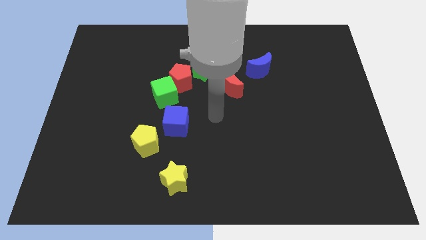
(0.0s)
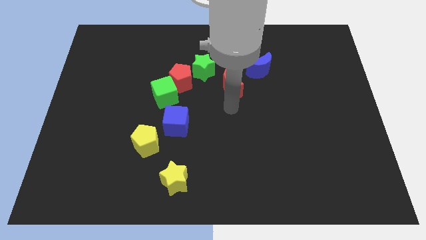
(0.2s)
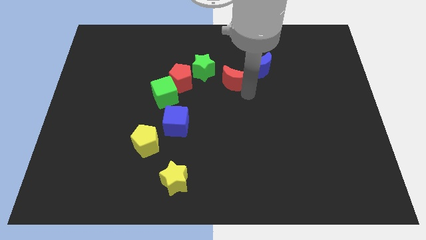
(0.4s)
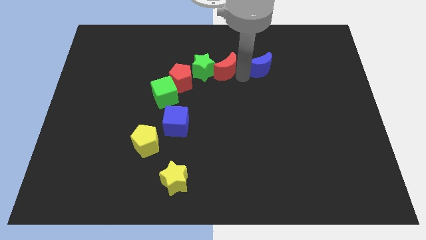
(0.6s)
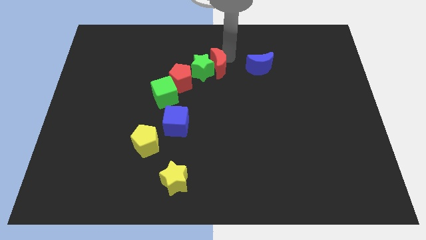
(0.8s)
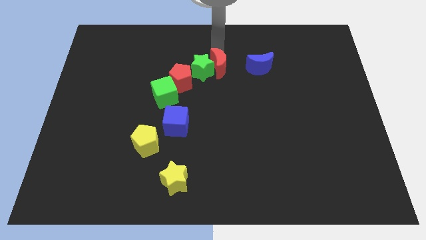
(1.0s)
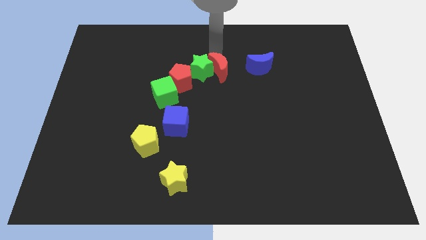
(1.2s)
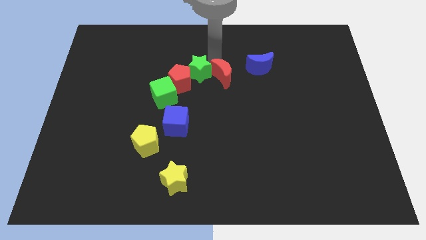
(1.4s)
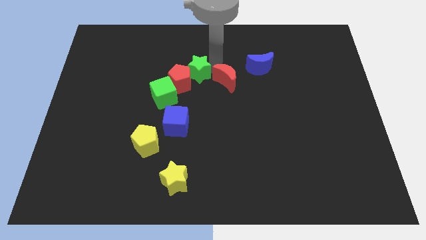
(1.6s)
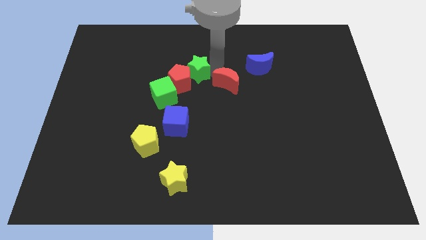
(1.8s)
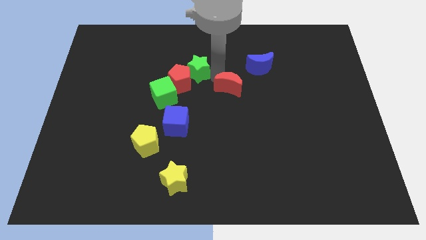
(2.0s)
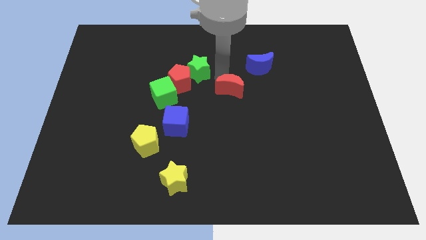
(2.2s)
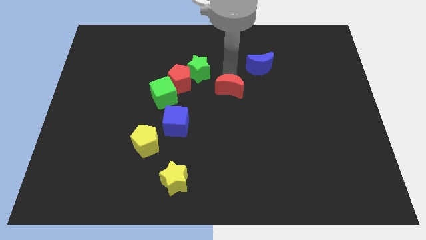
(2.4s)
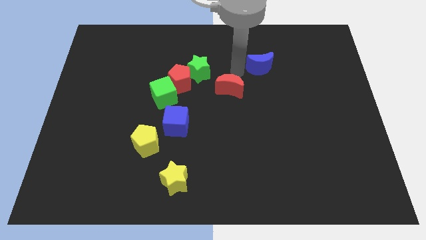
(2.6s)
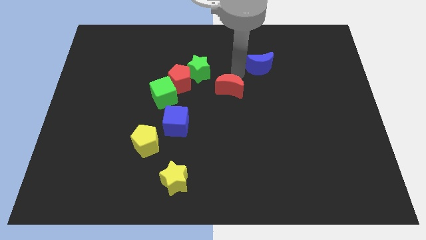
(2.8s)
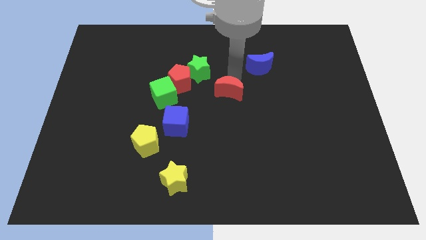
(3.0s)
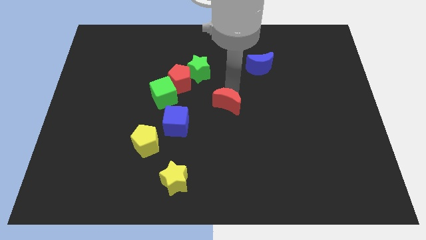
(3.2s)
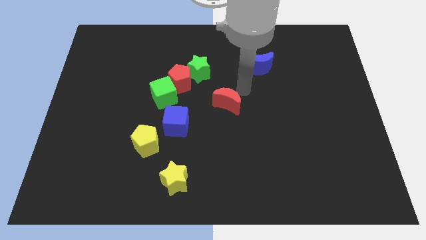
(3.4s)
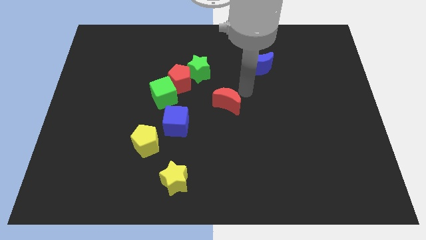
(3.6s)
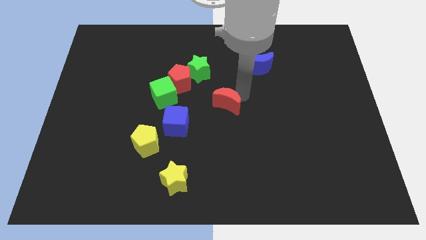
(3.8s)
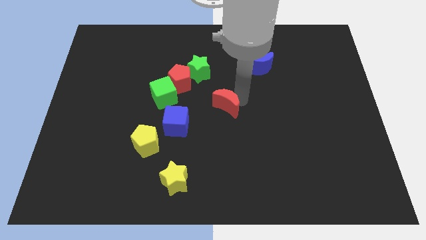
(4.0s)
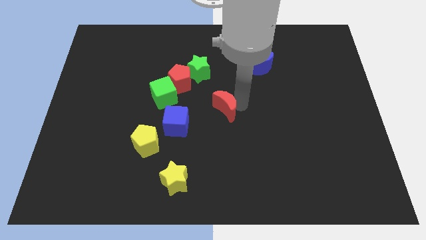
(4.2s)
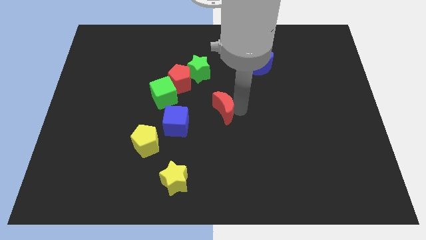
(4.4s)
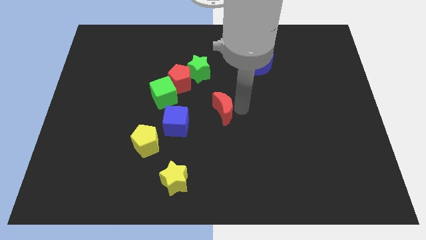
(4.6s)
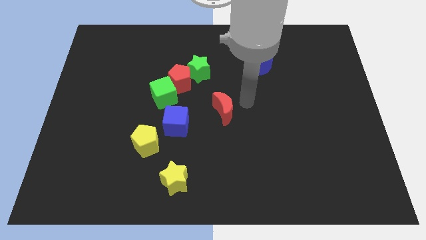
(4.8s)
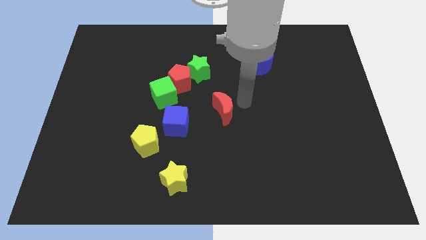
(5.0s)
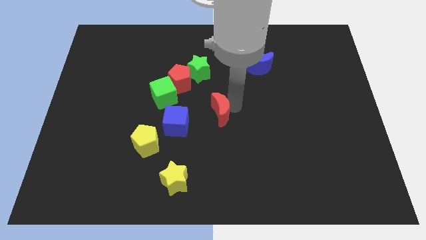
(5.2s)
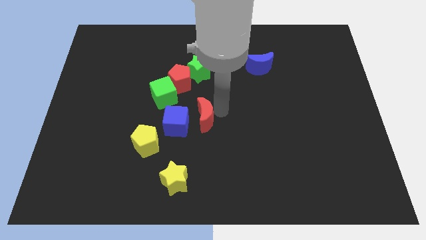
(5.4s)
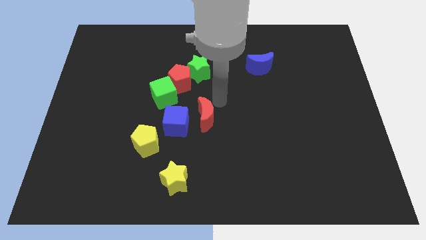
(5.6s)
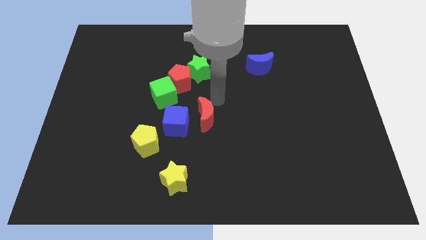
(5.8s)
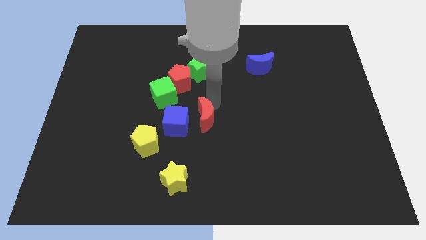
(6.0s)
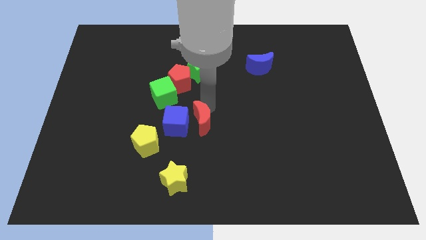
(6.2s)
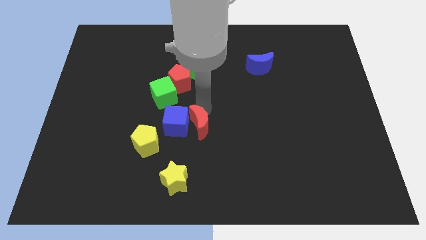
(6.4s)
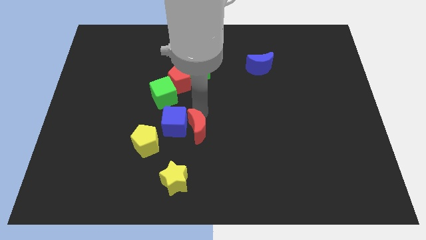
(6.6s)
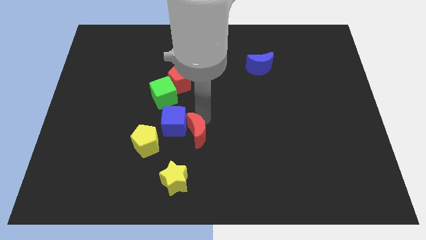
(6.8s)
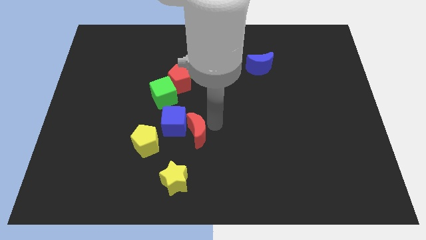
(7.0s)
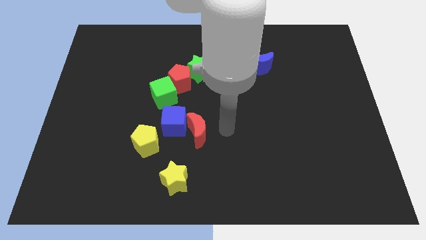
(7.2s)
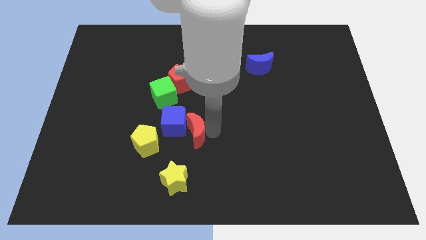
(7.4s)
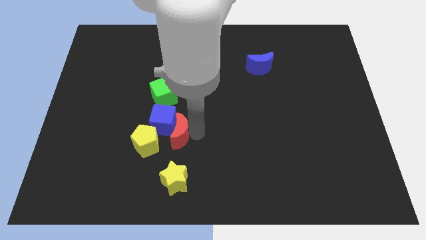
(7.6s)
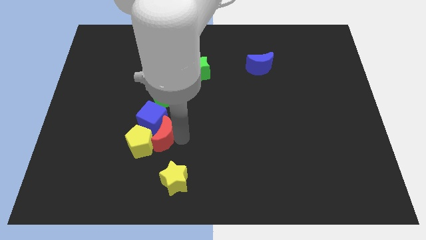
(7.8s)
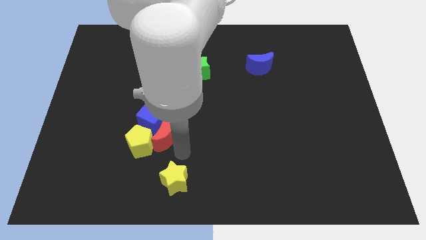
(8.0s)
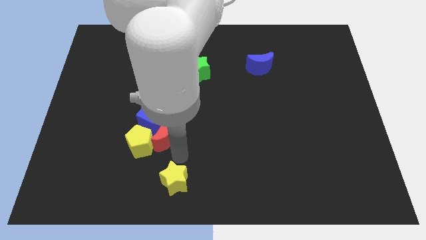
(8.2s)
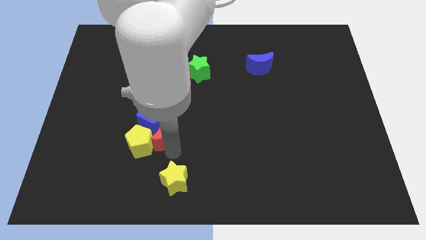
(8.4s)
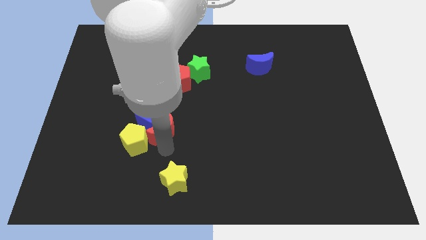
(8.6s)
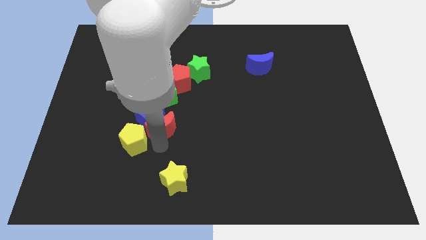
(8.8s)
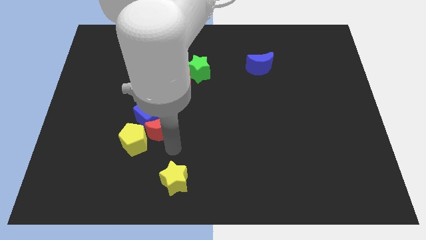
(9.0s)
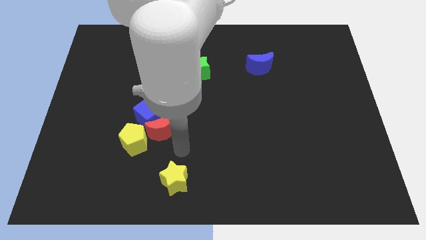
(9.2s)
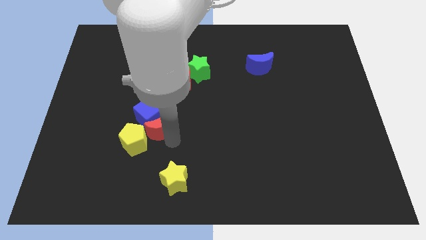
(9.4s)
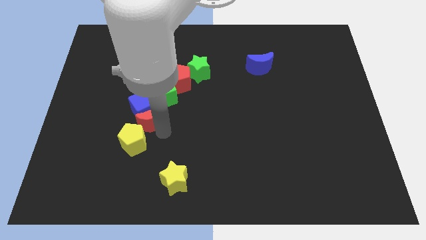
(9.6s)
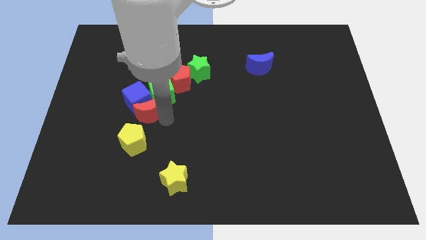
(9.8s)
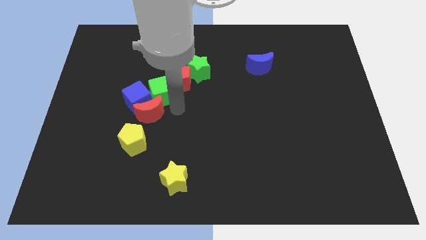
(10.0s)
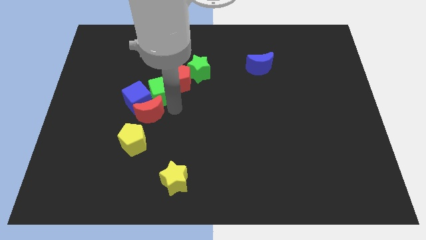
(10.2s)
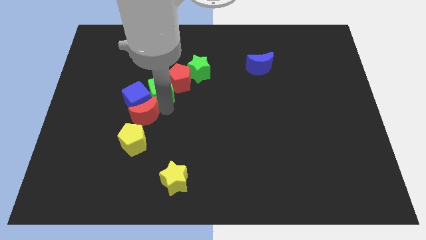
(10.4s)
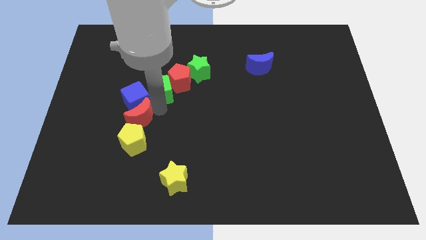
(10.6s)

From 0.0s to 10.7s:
push the red moon to the top left side of the yellow pentagon

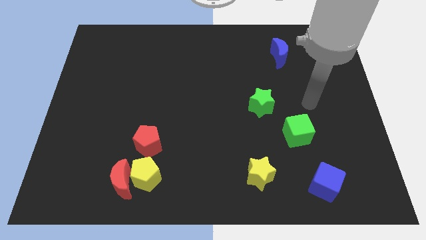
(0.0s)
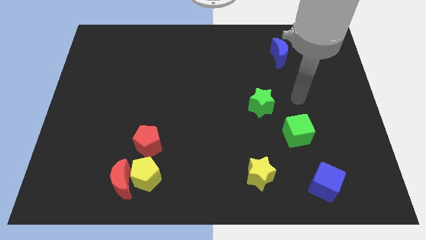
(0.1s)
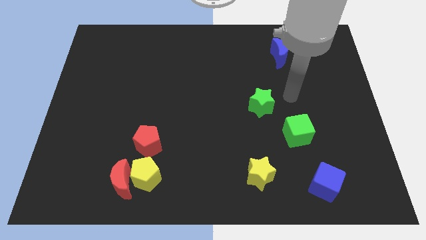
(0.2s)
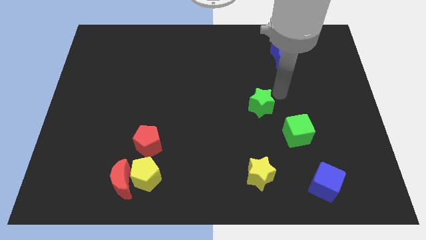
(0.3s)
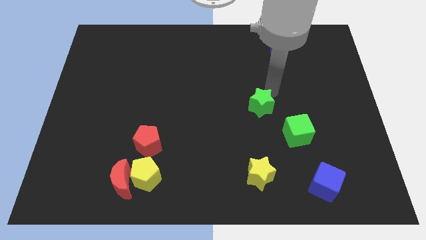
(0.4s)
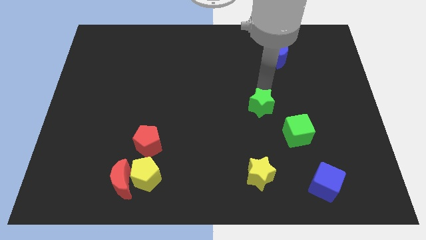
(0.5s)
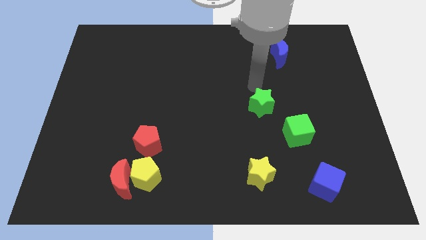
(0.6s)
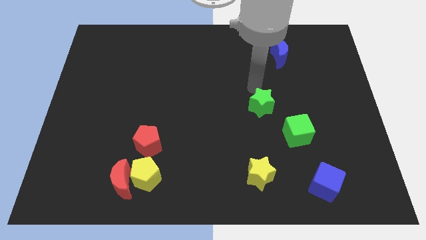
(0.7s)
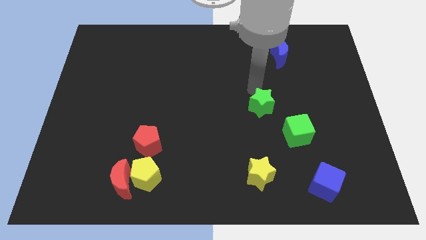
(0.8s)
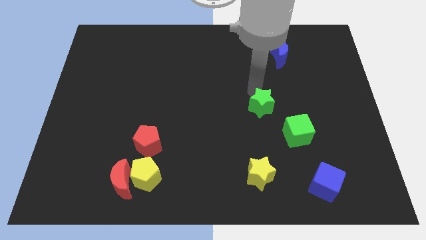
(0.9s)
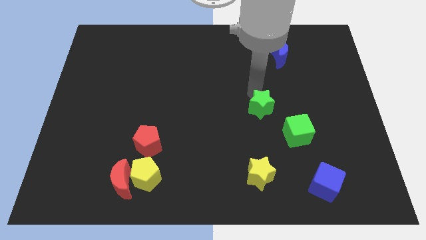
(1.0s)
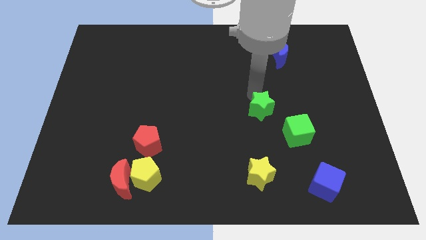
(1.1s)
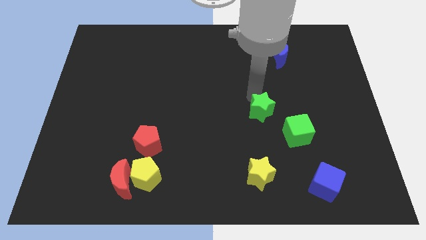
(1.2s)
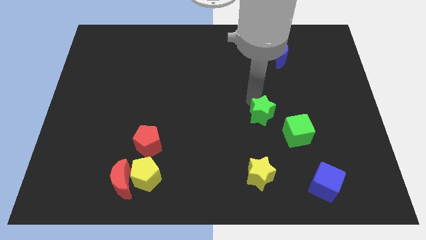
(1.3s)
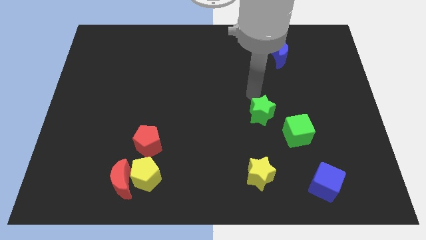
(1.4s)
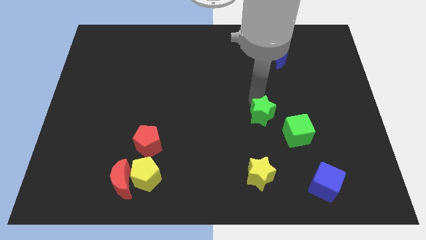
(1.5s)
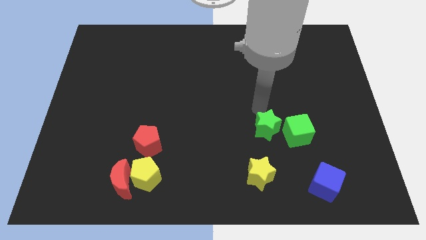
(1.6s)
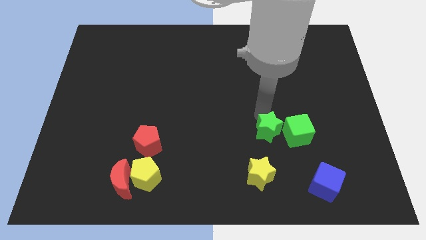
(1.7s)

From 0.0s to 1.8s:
slide the green star to the bottom left of the green cube
